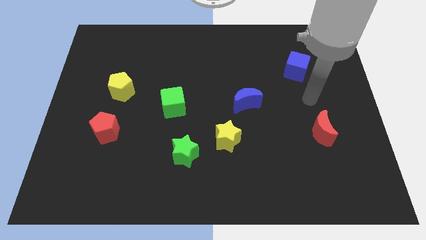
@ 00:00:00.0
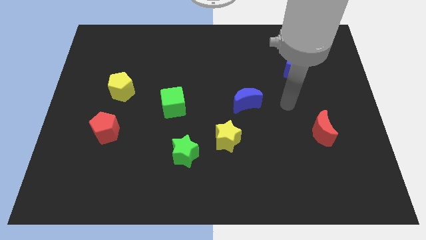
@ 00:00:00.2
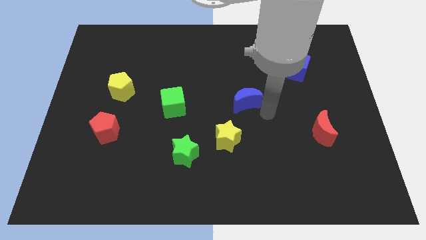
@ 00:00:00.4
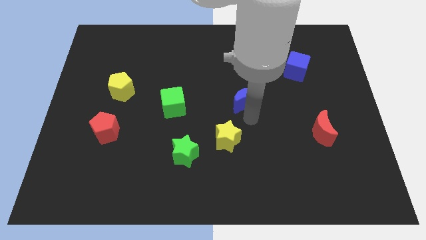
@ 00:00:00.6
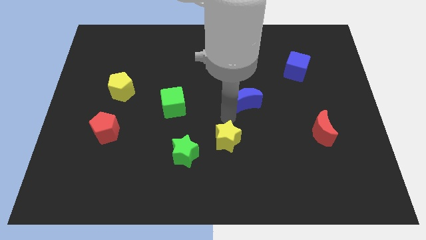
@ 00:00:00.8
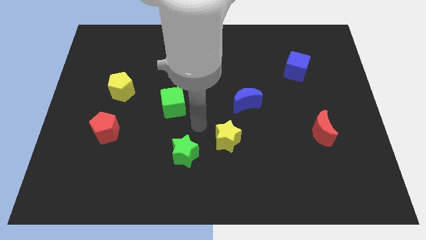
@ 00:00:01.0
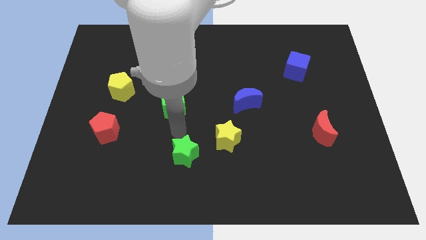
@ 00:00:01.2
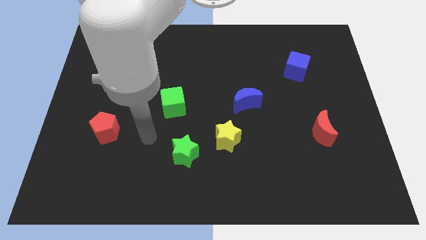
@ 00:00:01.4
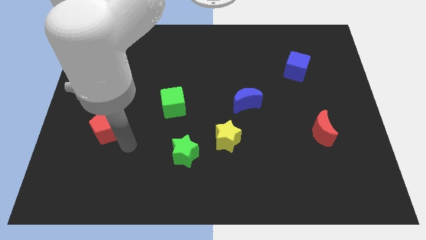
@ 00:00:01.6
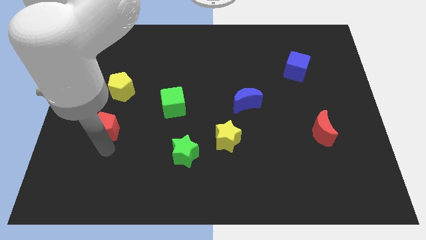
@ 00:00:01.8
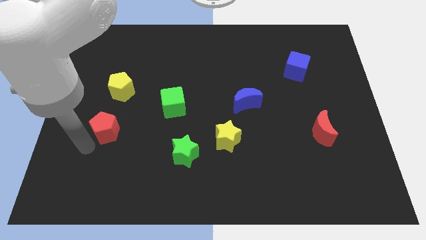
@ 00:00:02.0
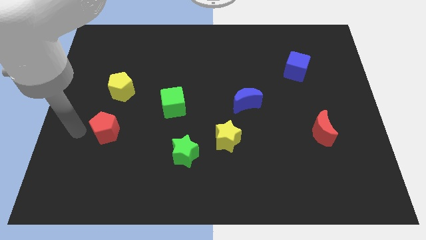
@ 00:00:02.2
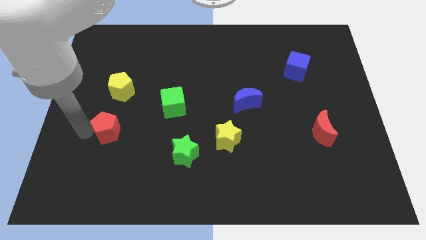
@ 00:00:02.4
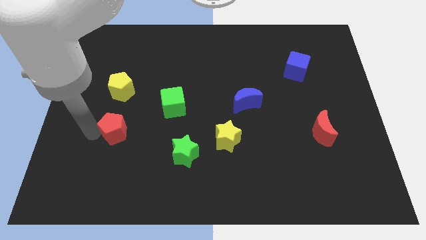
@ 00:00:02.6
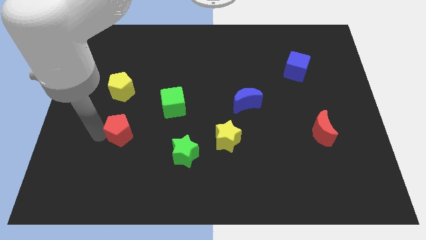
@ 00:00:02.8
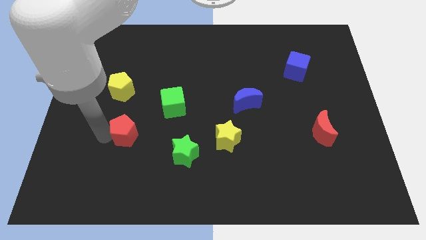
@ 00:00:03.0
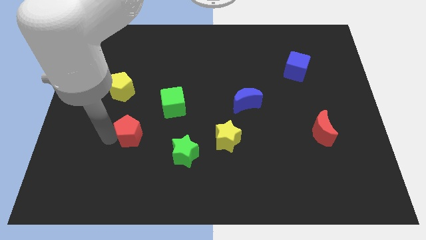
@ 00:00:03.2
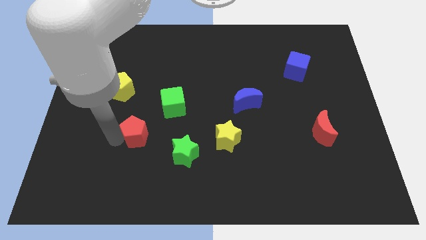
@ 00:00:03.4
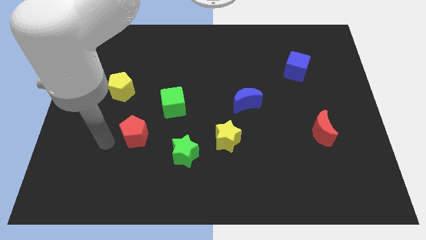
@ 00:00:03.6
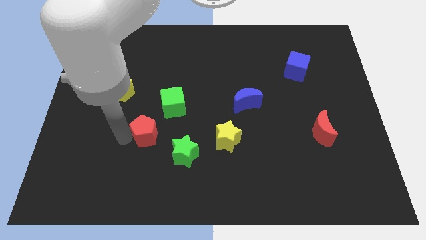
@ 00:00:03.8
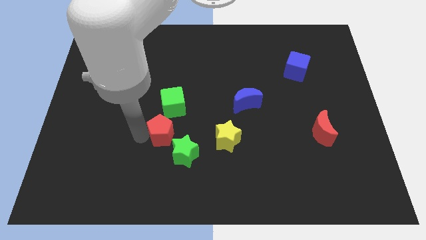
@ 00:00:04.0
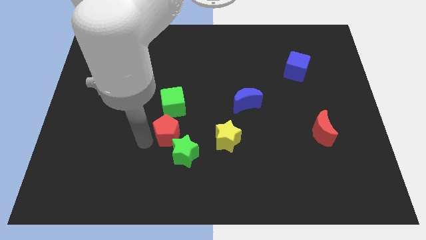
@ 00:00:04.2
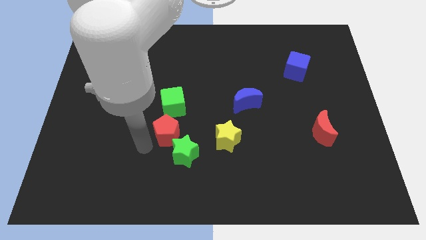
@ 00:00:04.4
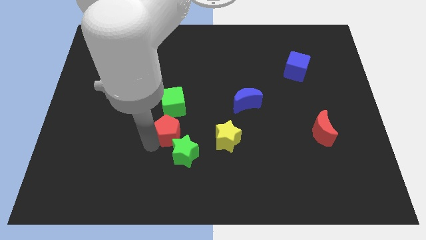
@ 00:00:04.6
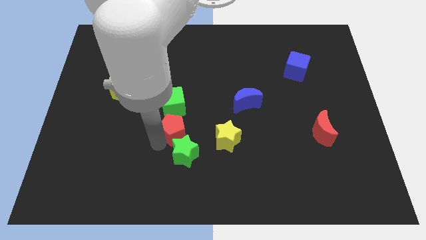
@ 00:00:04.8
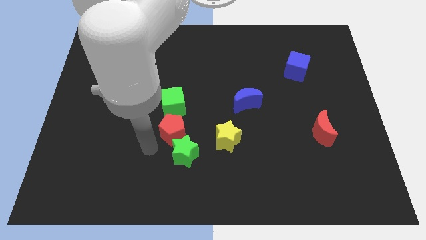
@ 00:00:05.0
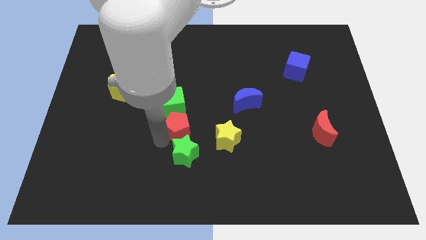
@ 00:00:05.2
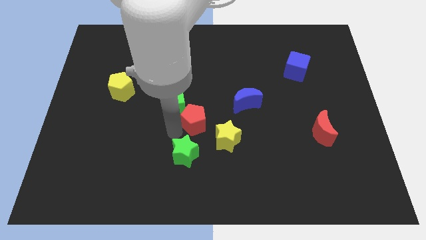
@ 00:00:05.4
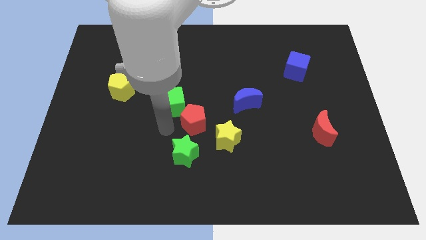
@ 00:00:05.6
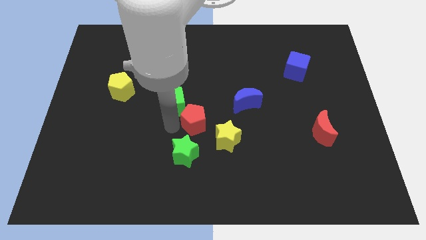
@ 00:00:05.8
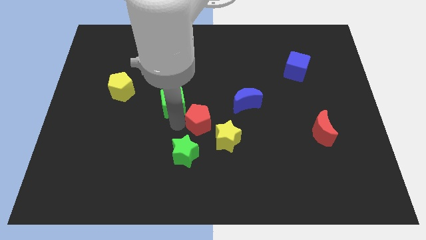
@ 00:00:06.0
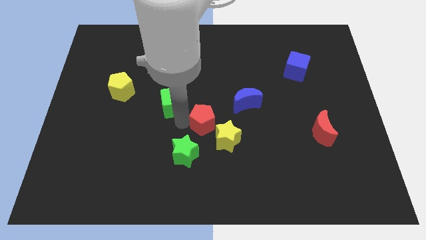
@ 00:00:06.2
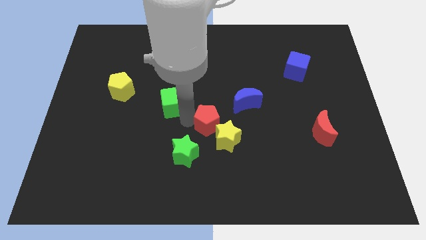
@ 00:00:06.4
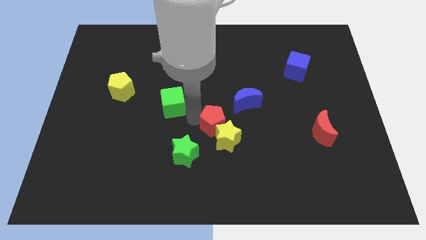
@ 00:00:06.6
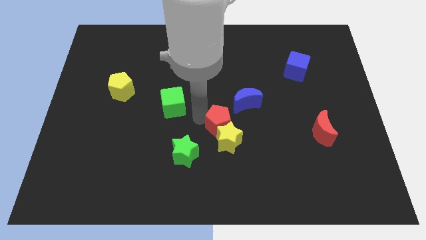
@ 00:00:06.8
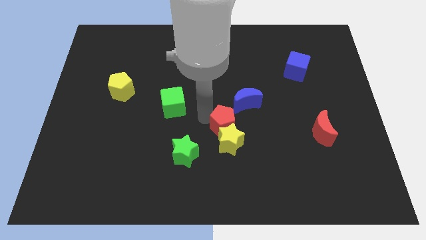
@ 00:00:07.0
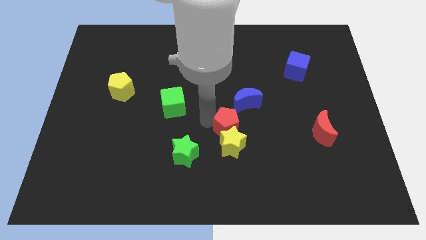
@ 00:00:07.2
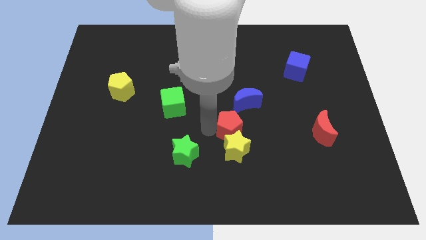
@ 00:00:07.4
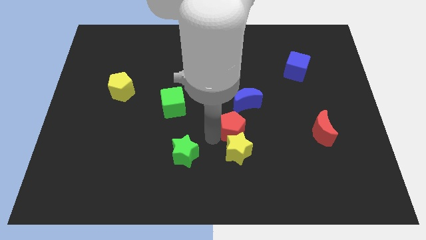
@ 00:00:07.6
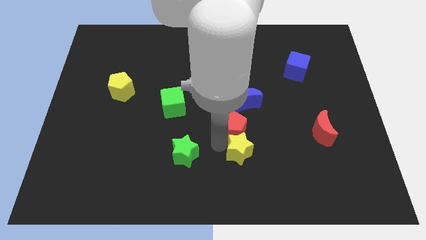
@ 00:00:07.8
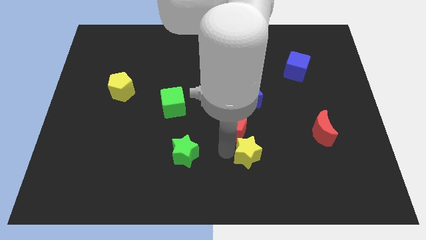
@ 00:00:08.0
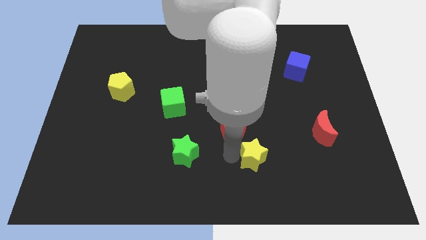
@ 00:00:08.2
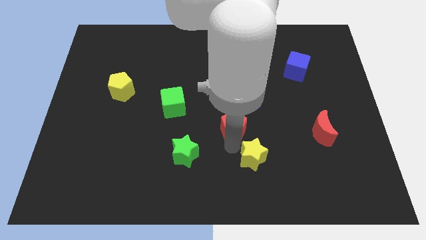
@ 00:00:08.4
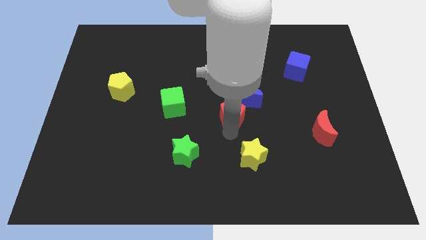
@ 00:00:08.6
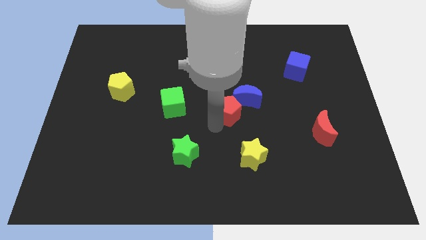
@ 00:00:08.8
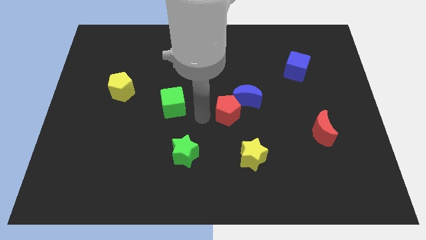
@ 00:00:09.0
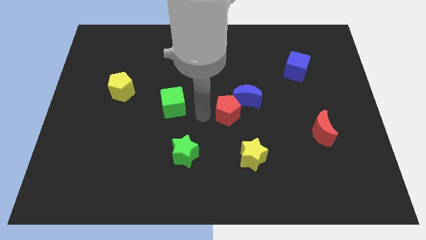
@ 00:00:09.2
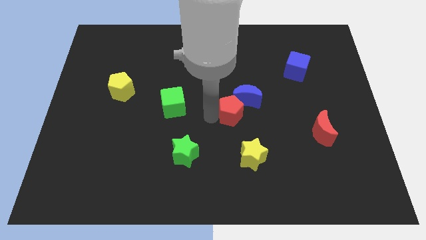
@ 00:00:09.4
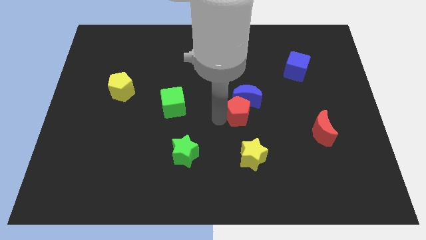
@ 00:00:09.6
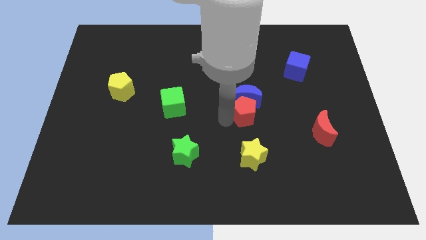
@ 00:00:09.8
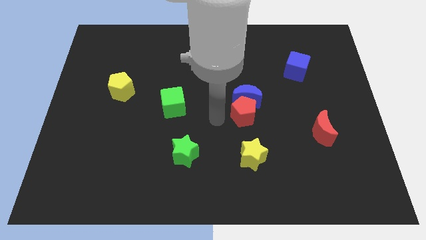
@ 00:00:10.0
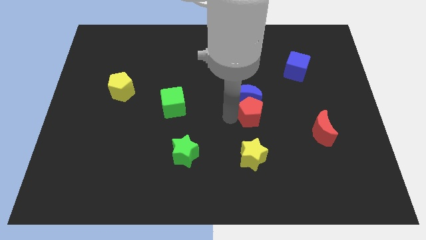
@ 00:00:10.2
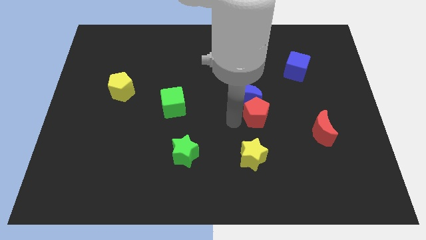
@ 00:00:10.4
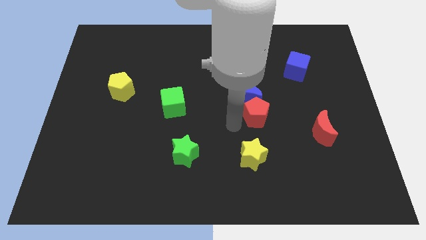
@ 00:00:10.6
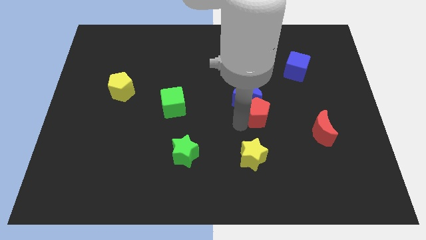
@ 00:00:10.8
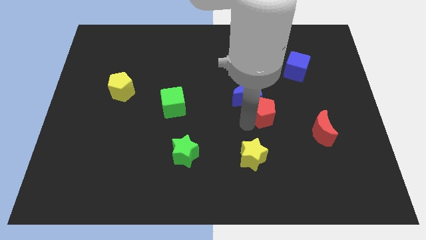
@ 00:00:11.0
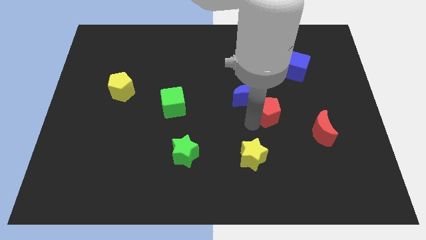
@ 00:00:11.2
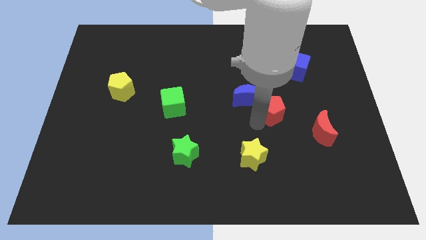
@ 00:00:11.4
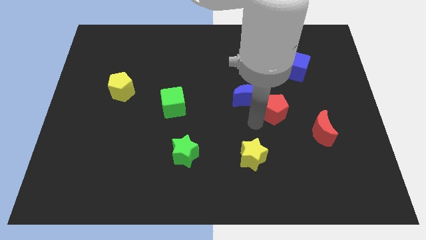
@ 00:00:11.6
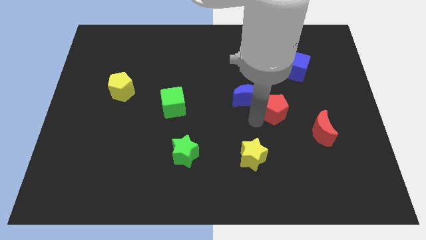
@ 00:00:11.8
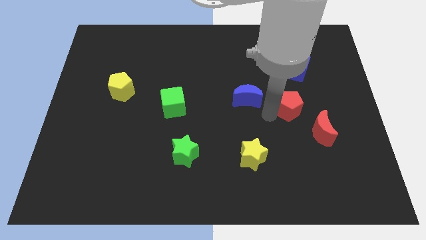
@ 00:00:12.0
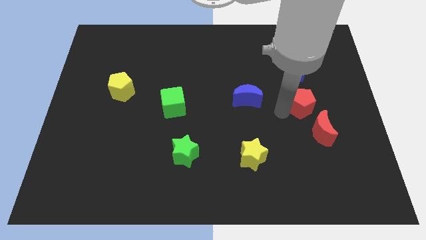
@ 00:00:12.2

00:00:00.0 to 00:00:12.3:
put the red pentagon to the top of the red moon

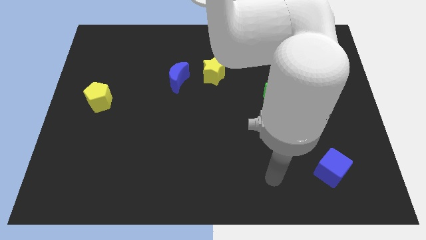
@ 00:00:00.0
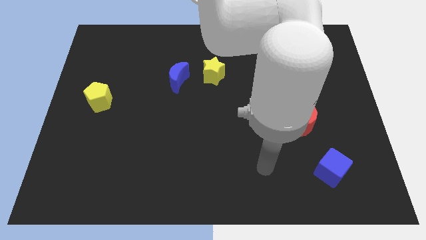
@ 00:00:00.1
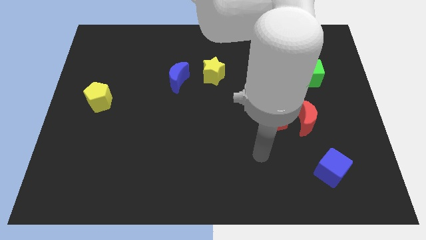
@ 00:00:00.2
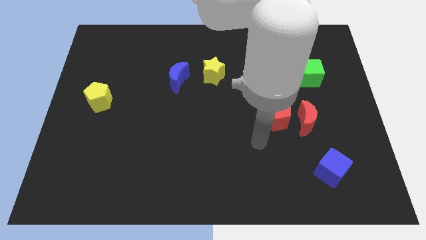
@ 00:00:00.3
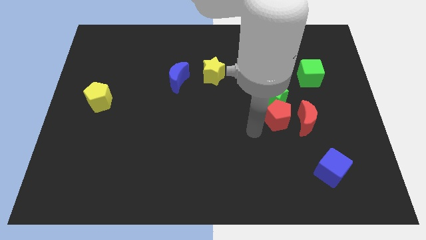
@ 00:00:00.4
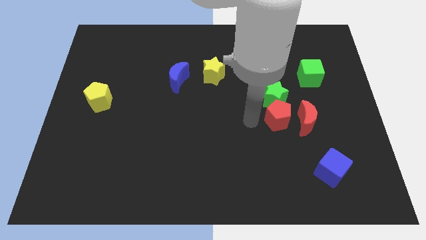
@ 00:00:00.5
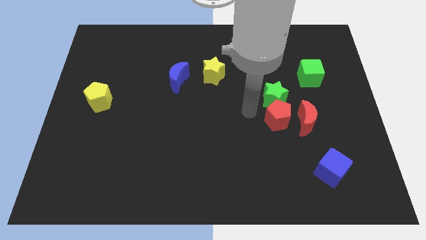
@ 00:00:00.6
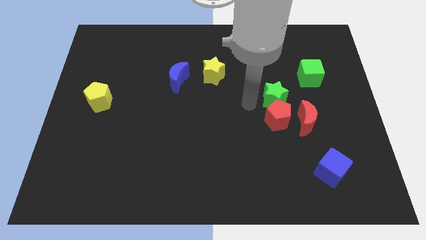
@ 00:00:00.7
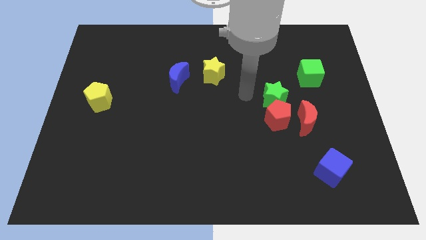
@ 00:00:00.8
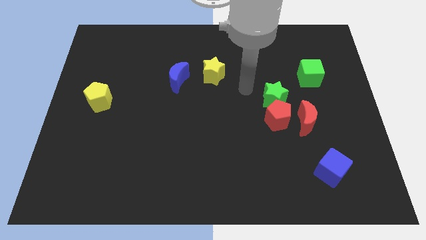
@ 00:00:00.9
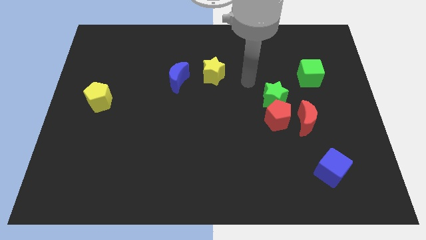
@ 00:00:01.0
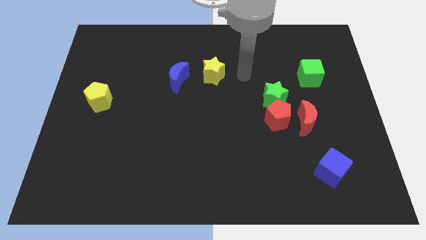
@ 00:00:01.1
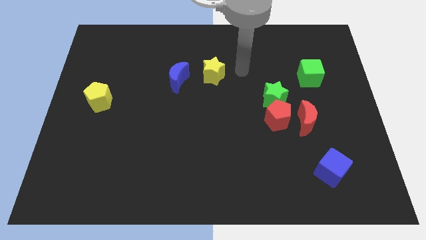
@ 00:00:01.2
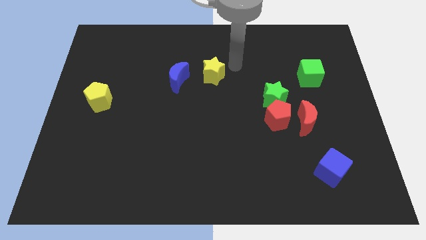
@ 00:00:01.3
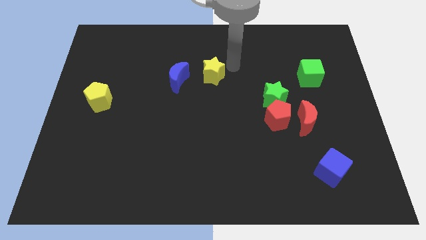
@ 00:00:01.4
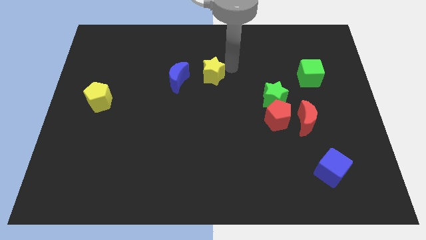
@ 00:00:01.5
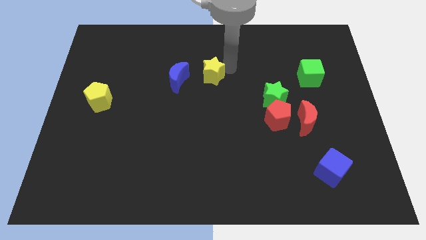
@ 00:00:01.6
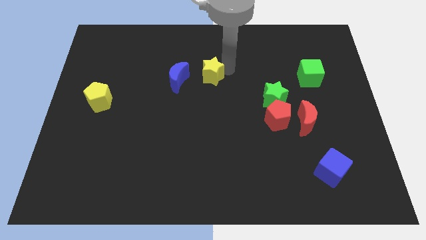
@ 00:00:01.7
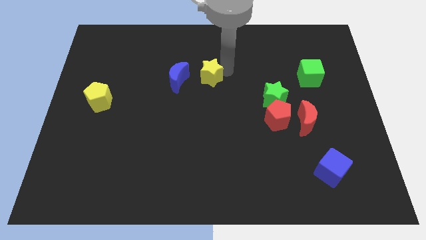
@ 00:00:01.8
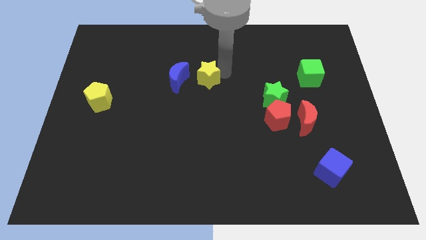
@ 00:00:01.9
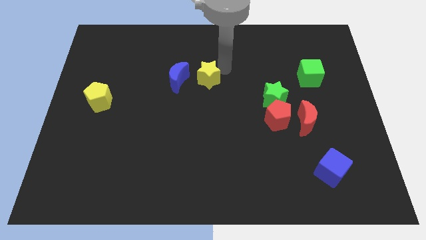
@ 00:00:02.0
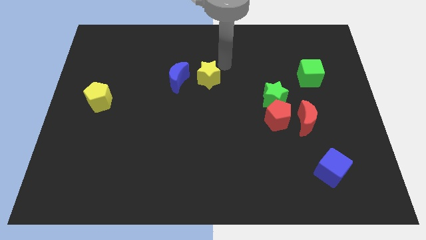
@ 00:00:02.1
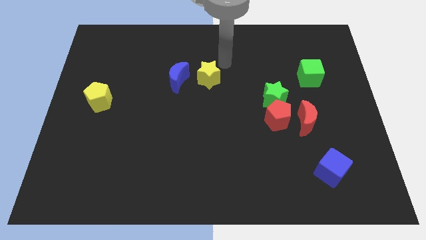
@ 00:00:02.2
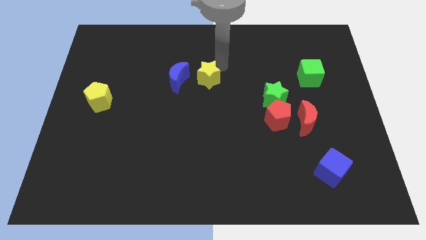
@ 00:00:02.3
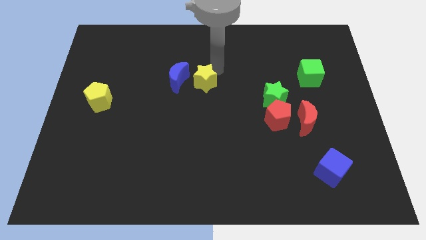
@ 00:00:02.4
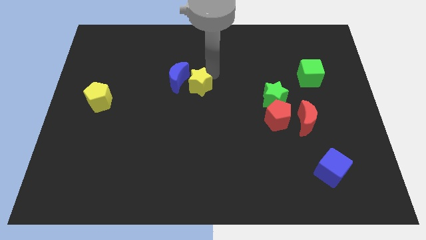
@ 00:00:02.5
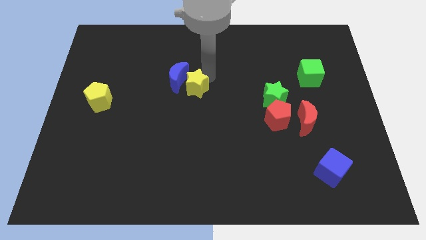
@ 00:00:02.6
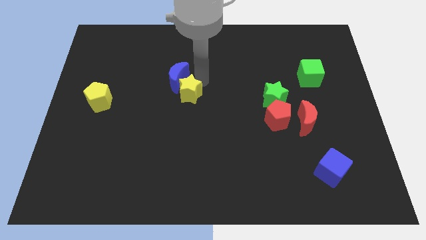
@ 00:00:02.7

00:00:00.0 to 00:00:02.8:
push the yellow star to the bottom of the blue moon
